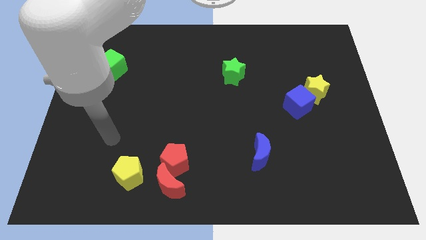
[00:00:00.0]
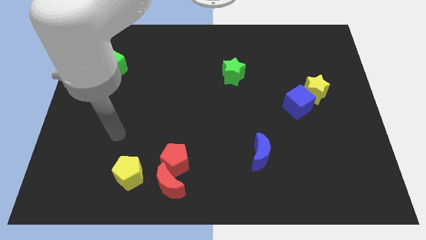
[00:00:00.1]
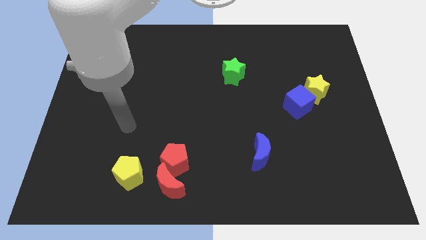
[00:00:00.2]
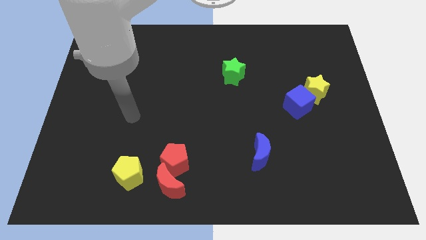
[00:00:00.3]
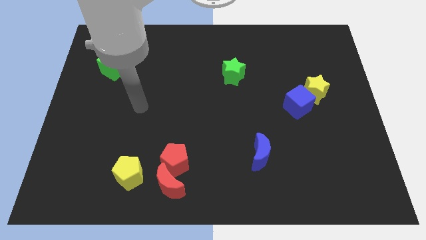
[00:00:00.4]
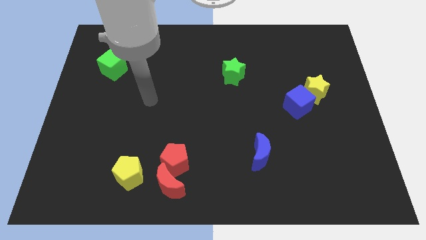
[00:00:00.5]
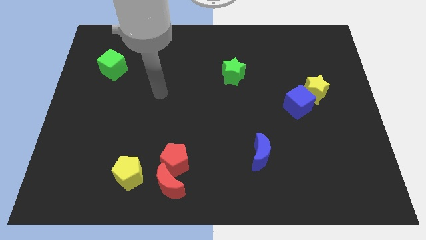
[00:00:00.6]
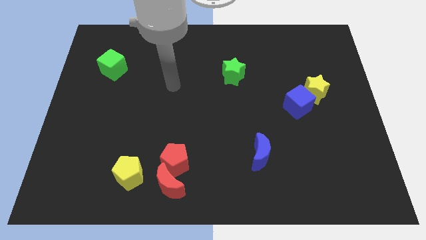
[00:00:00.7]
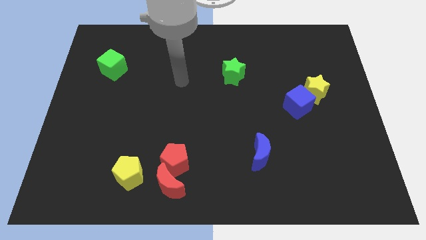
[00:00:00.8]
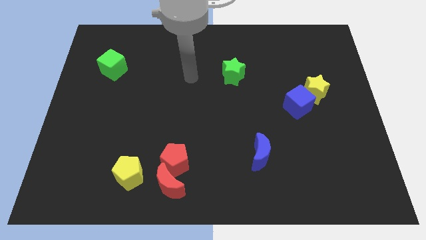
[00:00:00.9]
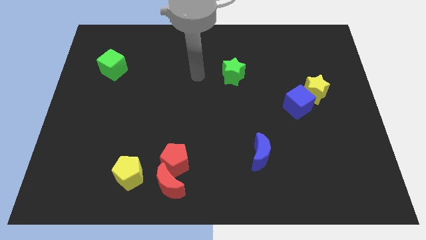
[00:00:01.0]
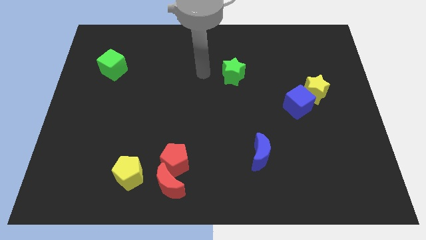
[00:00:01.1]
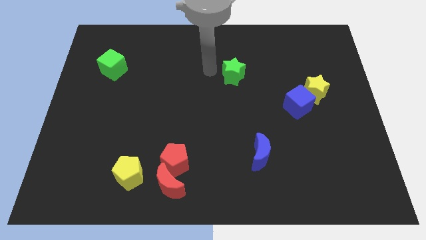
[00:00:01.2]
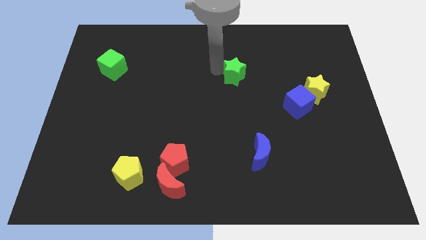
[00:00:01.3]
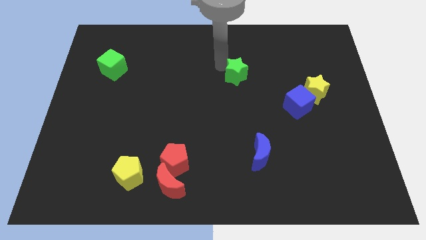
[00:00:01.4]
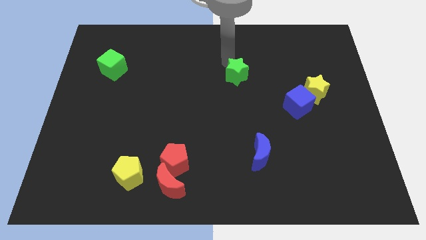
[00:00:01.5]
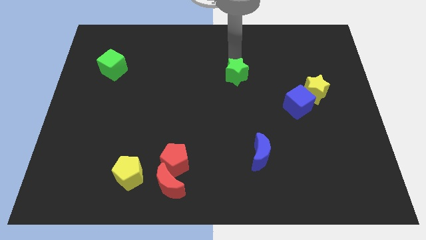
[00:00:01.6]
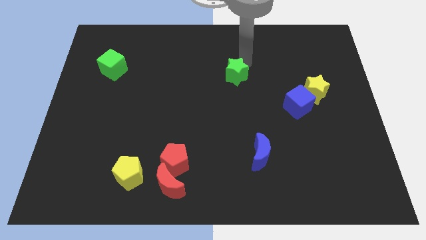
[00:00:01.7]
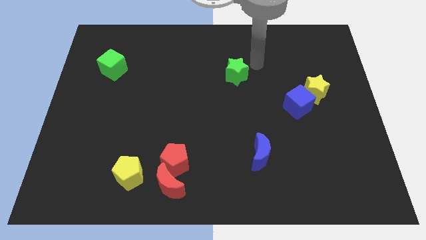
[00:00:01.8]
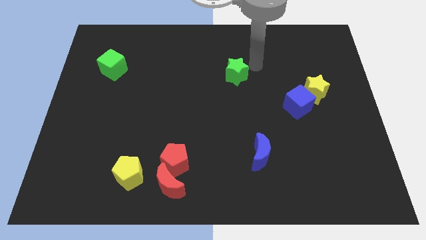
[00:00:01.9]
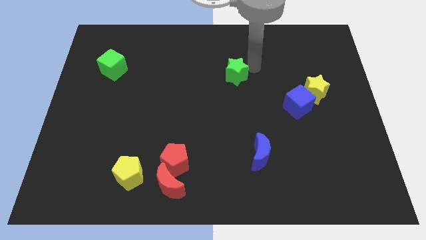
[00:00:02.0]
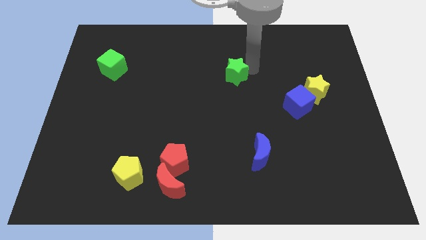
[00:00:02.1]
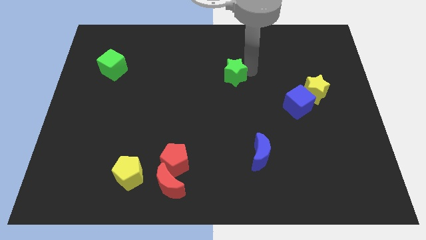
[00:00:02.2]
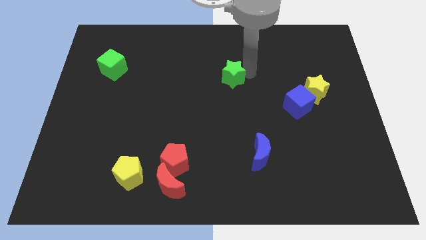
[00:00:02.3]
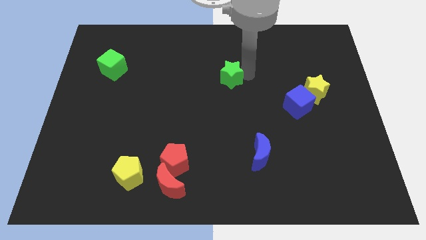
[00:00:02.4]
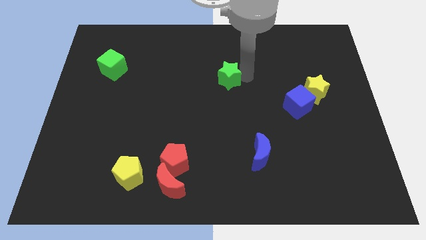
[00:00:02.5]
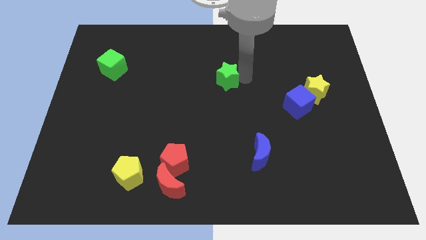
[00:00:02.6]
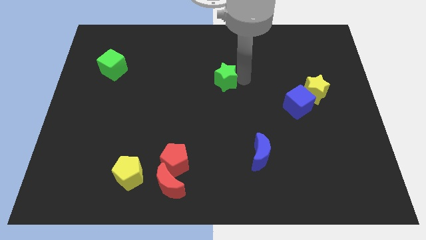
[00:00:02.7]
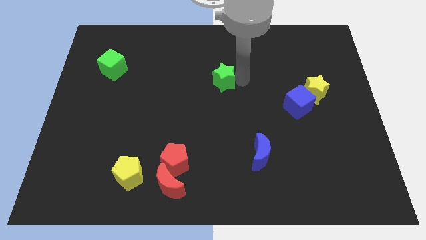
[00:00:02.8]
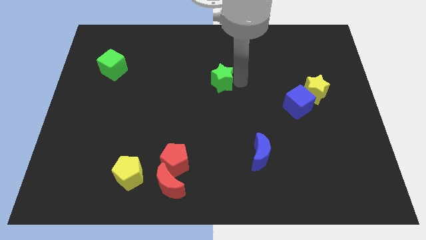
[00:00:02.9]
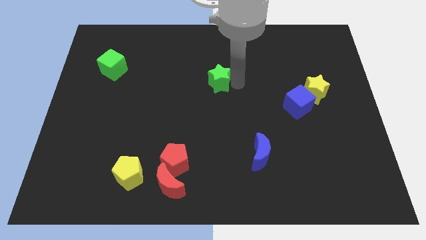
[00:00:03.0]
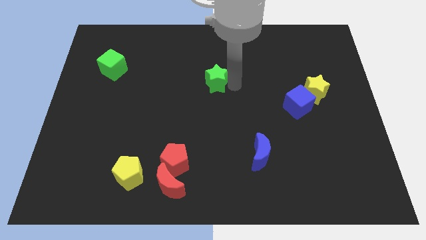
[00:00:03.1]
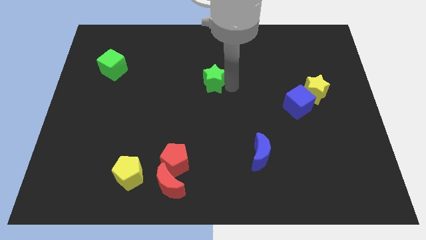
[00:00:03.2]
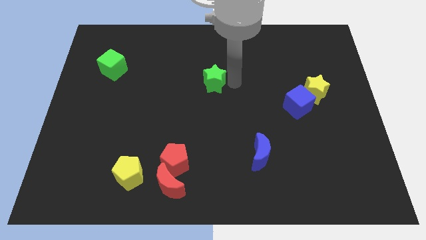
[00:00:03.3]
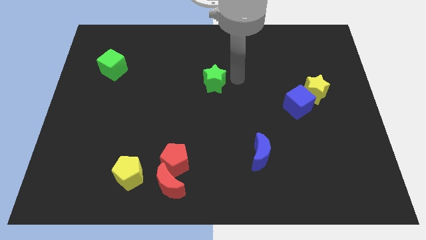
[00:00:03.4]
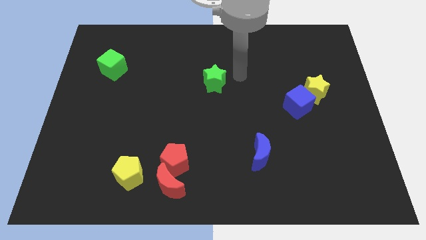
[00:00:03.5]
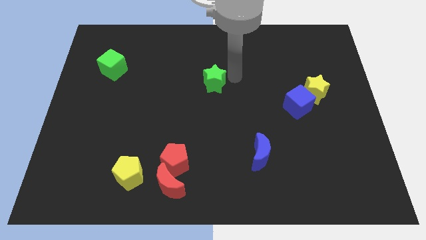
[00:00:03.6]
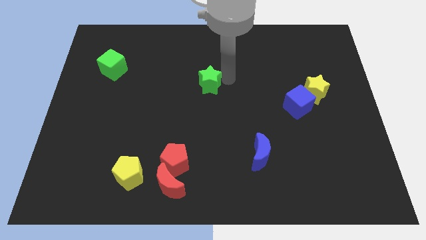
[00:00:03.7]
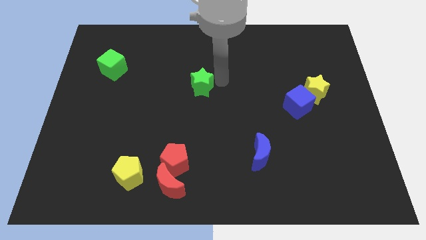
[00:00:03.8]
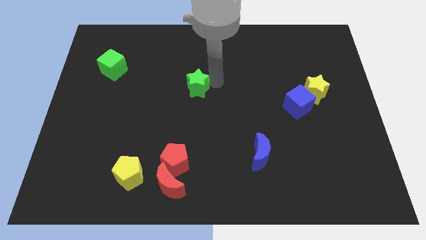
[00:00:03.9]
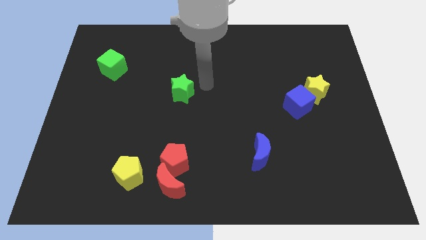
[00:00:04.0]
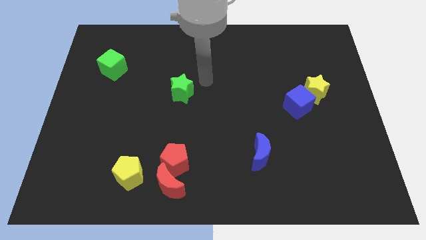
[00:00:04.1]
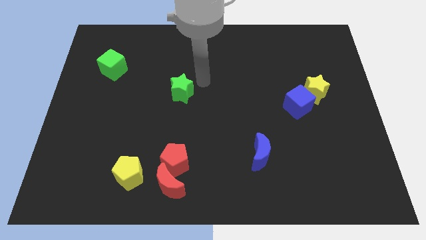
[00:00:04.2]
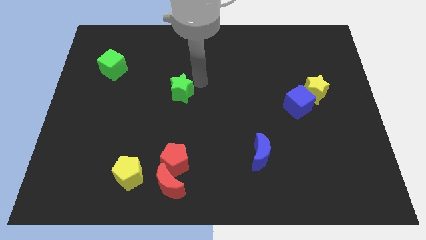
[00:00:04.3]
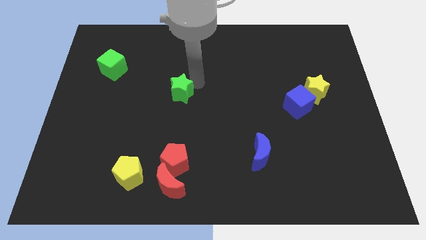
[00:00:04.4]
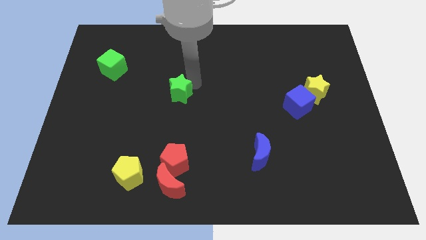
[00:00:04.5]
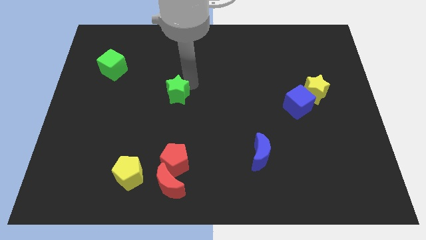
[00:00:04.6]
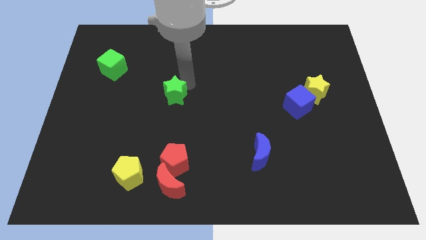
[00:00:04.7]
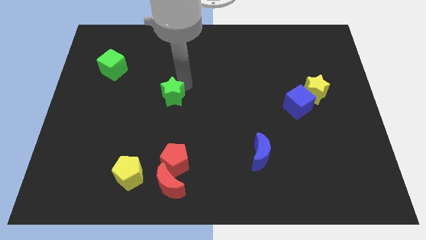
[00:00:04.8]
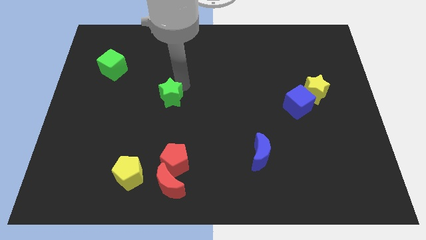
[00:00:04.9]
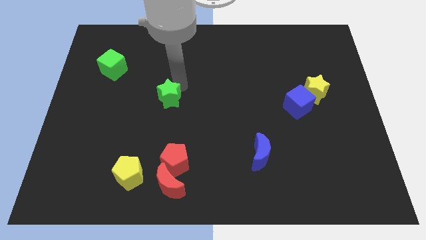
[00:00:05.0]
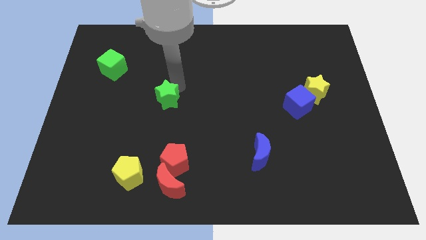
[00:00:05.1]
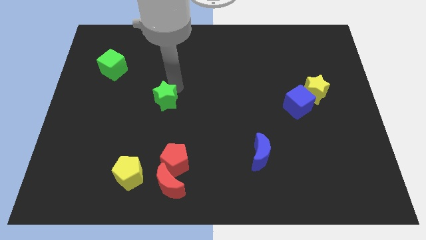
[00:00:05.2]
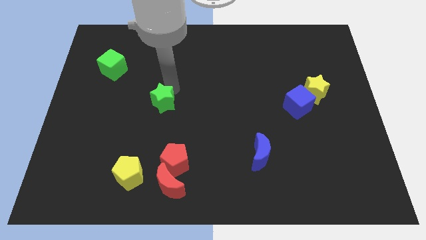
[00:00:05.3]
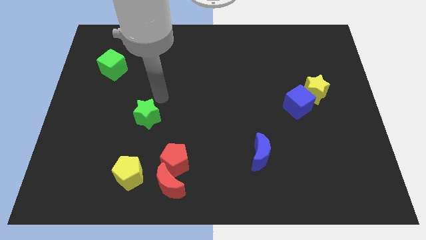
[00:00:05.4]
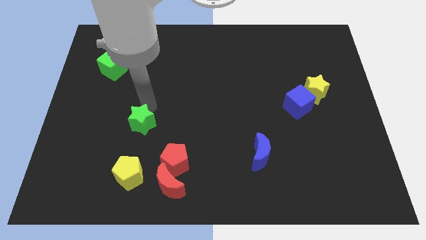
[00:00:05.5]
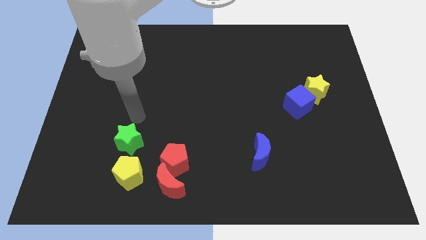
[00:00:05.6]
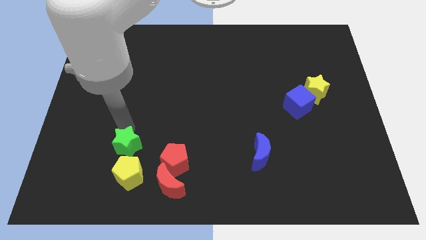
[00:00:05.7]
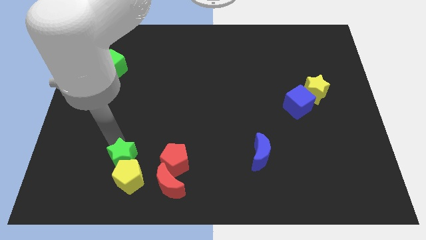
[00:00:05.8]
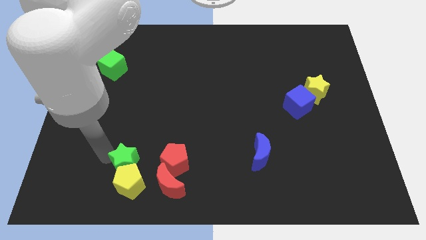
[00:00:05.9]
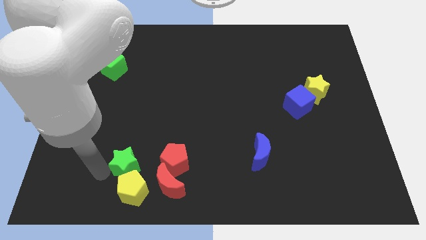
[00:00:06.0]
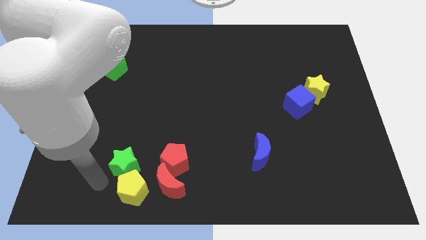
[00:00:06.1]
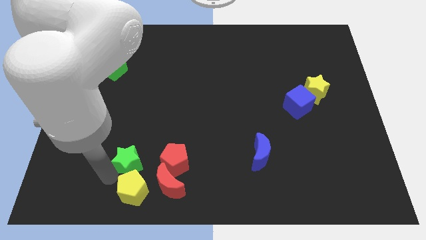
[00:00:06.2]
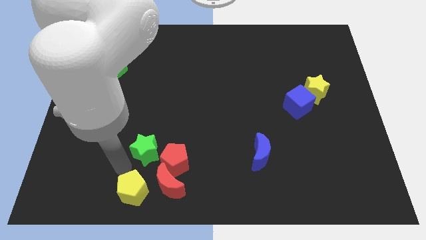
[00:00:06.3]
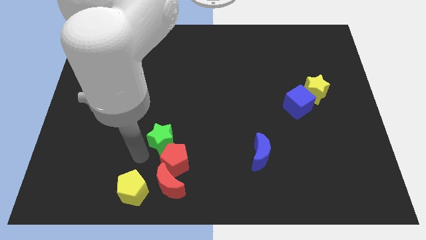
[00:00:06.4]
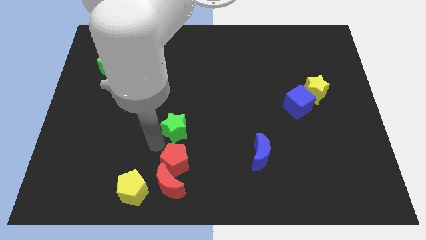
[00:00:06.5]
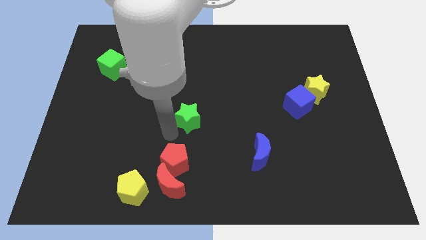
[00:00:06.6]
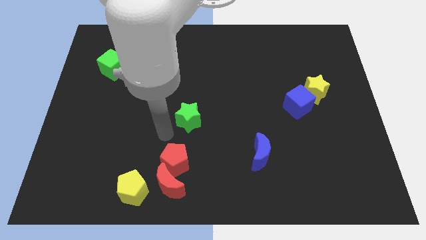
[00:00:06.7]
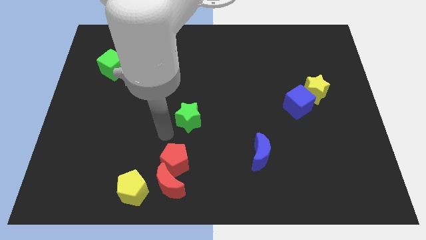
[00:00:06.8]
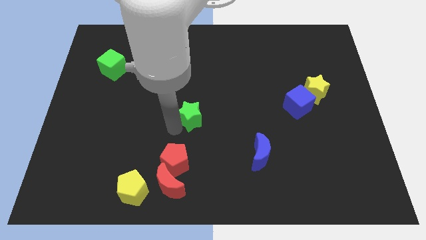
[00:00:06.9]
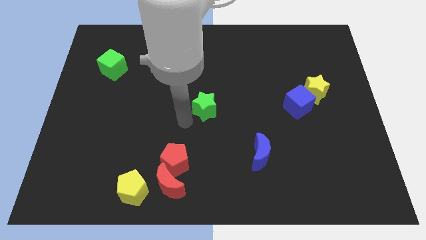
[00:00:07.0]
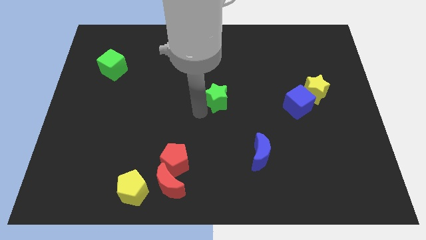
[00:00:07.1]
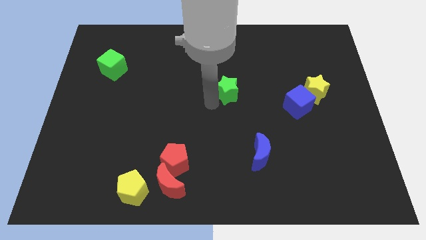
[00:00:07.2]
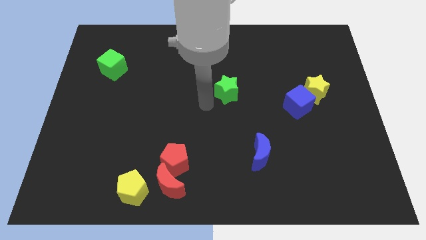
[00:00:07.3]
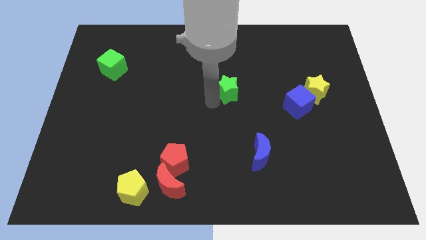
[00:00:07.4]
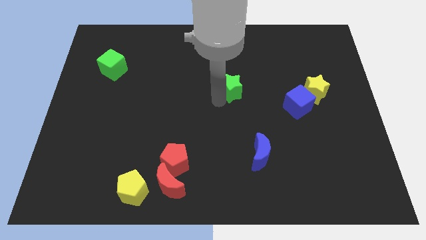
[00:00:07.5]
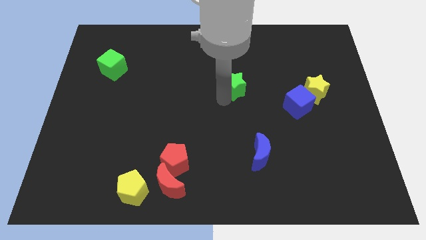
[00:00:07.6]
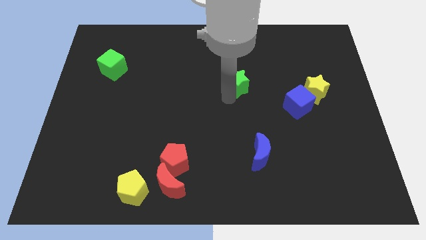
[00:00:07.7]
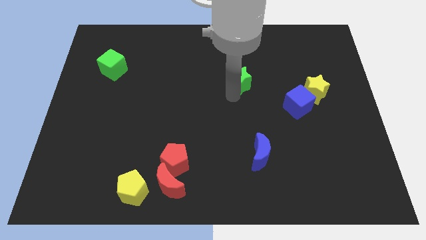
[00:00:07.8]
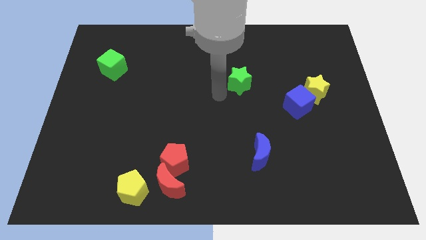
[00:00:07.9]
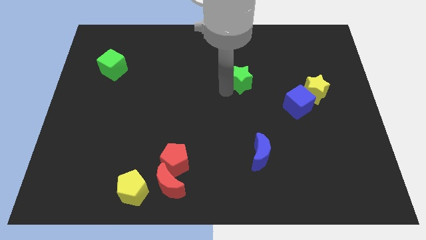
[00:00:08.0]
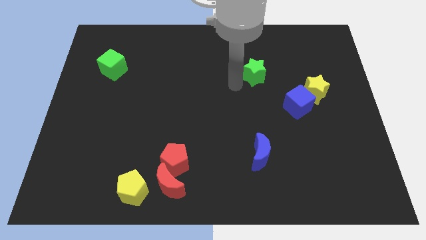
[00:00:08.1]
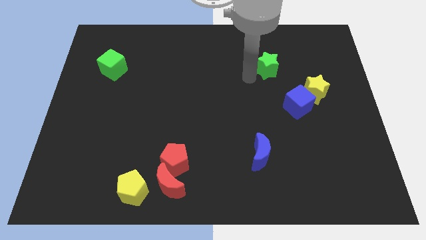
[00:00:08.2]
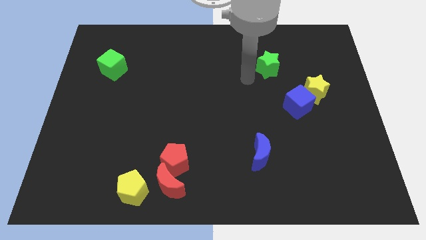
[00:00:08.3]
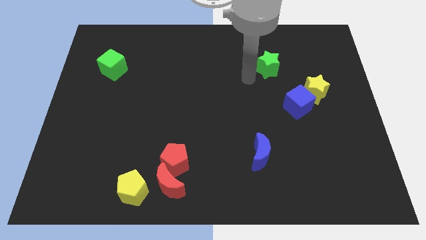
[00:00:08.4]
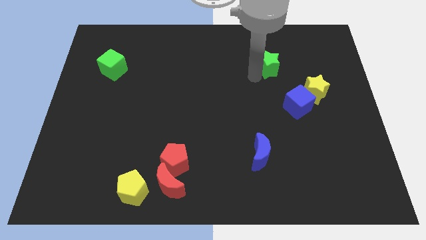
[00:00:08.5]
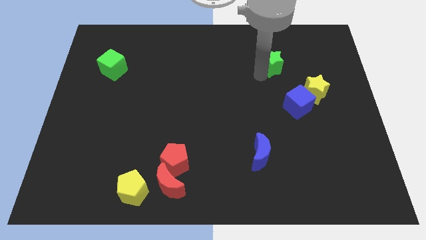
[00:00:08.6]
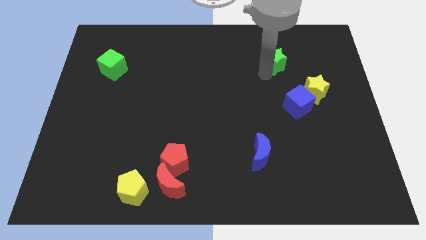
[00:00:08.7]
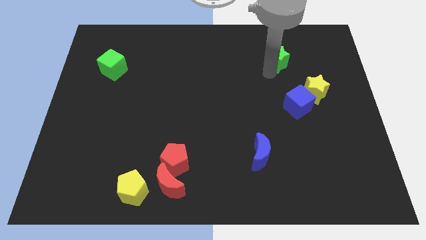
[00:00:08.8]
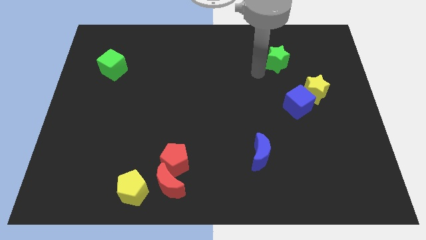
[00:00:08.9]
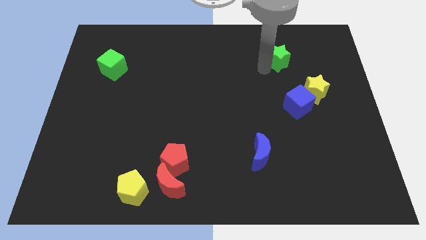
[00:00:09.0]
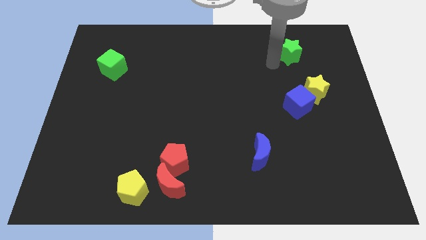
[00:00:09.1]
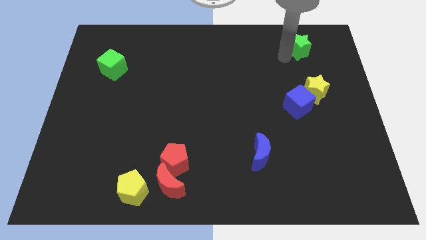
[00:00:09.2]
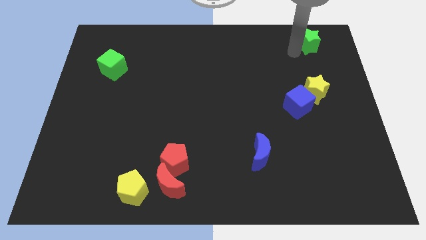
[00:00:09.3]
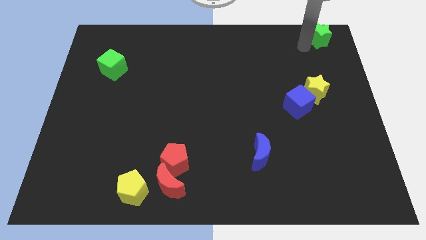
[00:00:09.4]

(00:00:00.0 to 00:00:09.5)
push the green star to the upper right corner
